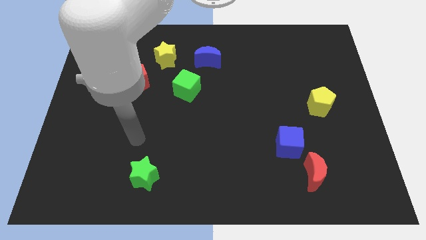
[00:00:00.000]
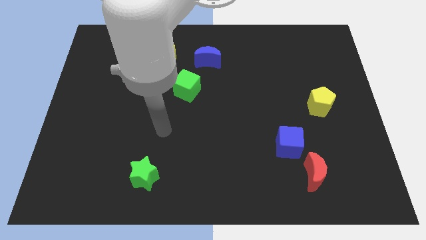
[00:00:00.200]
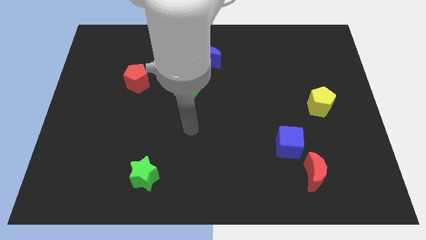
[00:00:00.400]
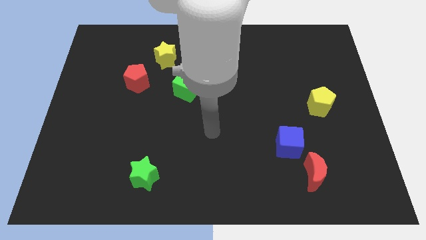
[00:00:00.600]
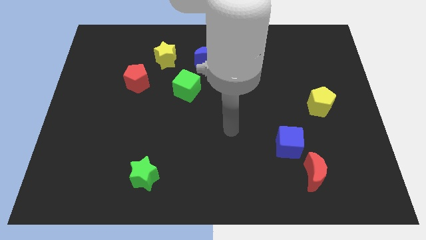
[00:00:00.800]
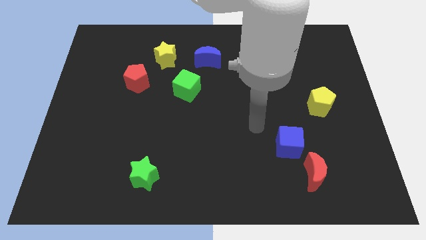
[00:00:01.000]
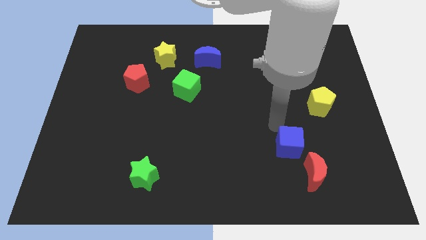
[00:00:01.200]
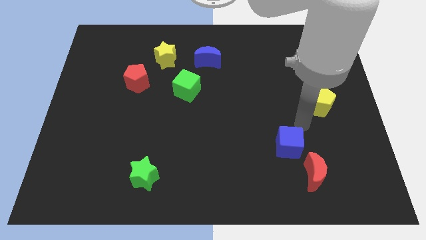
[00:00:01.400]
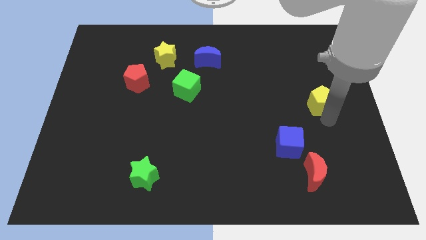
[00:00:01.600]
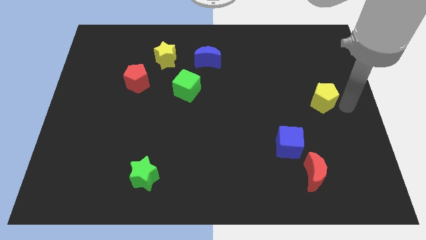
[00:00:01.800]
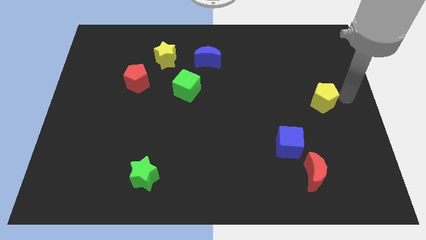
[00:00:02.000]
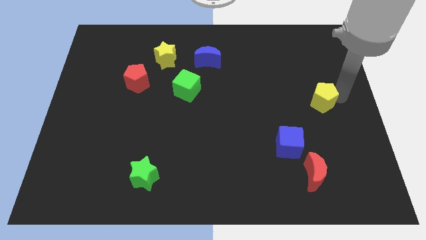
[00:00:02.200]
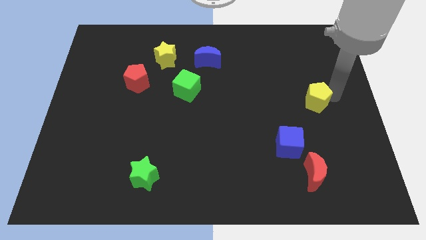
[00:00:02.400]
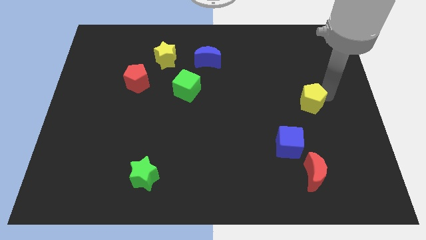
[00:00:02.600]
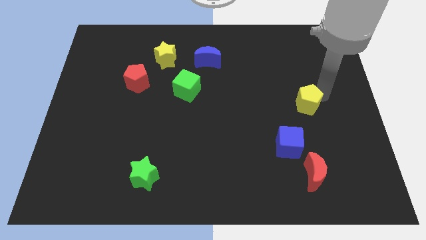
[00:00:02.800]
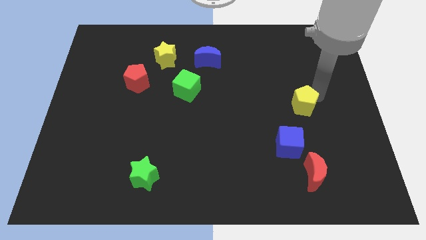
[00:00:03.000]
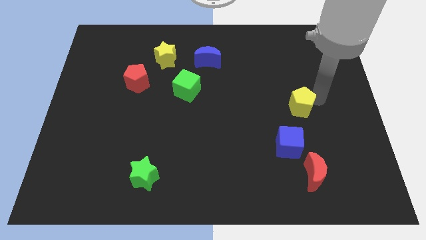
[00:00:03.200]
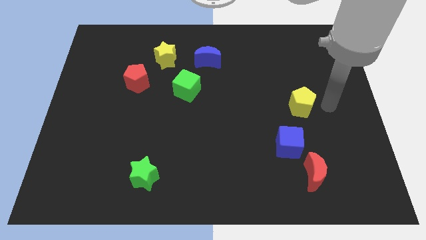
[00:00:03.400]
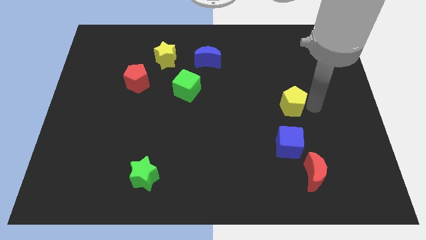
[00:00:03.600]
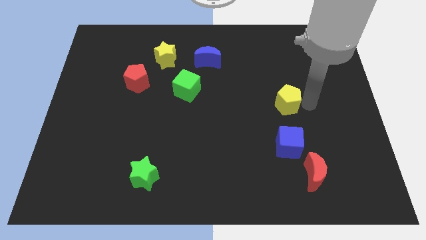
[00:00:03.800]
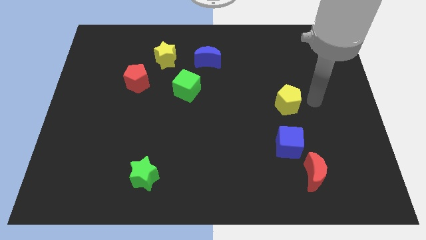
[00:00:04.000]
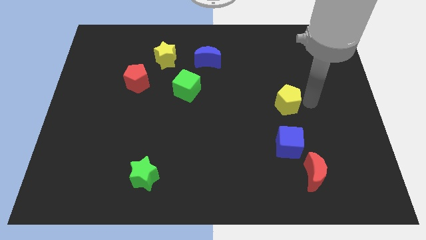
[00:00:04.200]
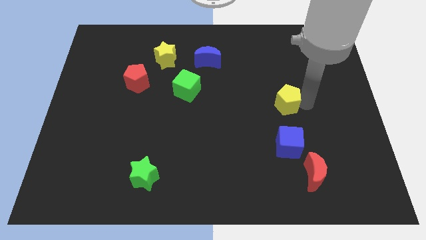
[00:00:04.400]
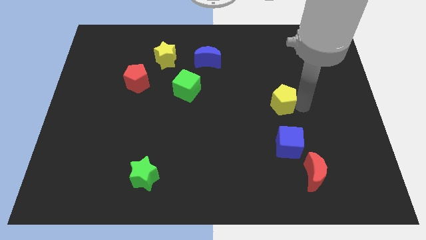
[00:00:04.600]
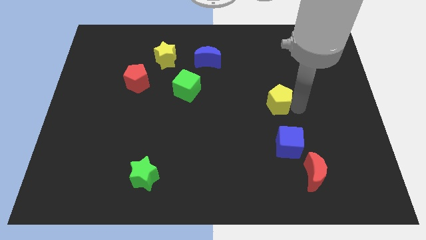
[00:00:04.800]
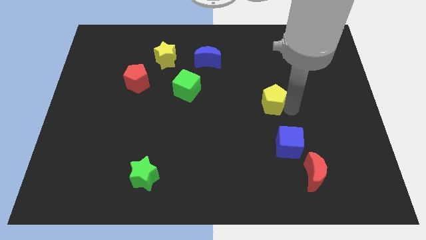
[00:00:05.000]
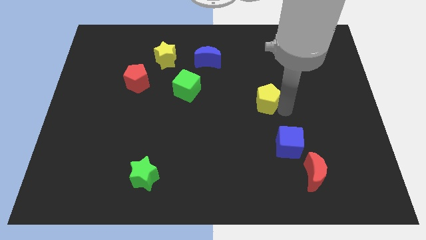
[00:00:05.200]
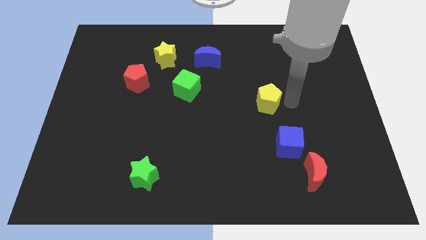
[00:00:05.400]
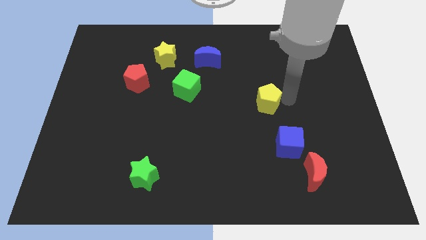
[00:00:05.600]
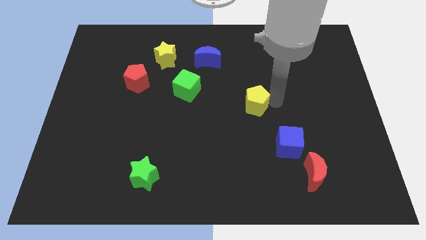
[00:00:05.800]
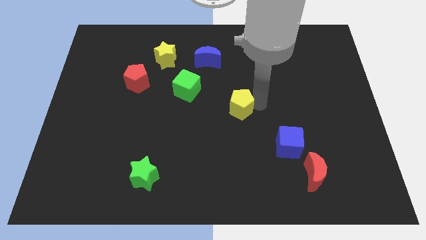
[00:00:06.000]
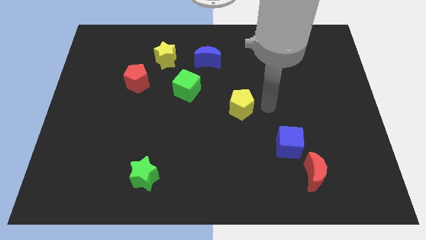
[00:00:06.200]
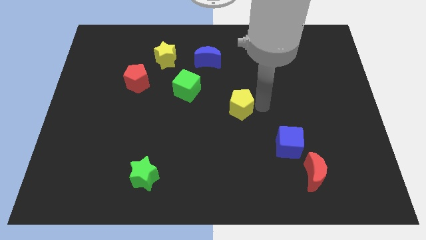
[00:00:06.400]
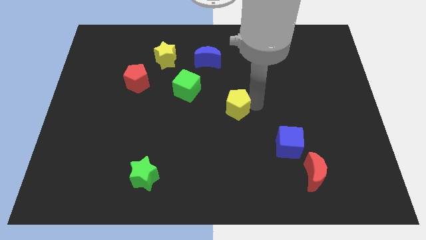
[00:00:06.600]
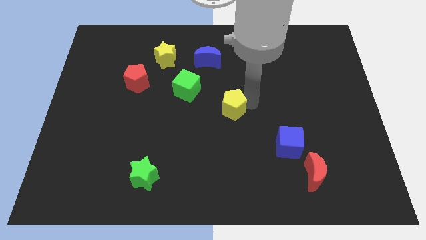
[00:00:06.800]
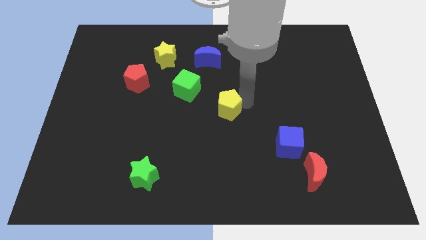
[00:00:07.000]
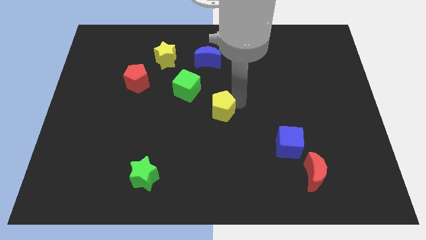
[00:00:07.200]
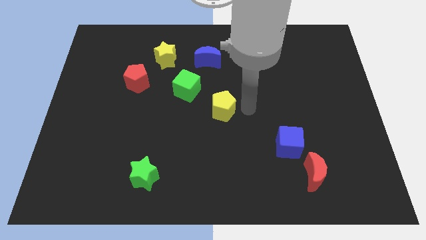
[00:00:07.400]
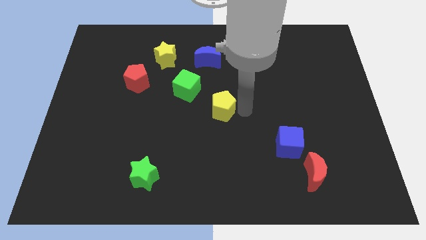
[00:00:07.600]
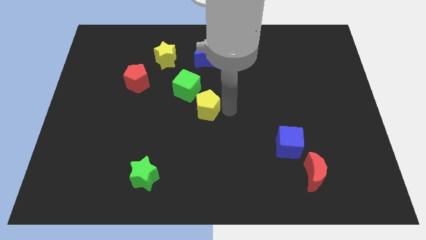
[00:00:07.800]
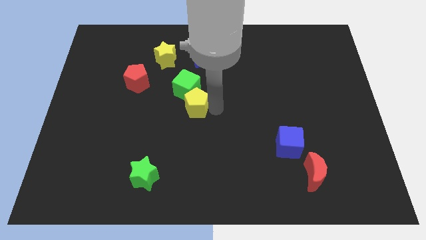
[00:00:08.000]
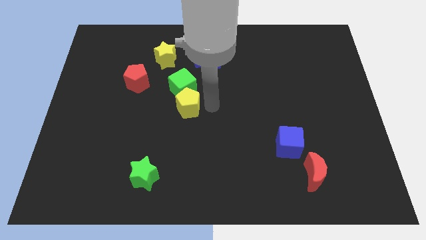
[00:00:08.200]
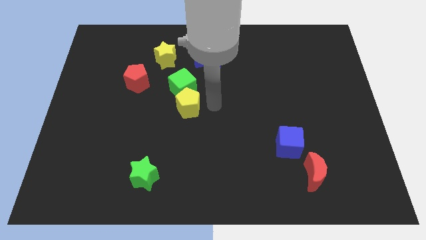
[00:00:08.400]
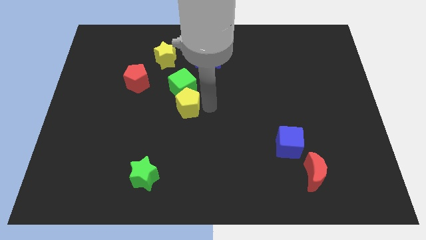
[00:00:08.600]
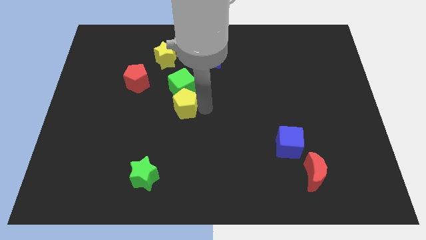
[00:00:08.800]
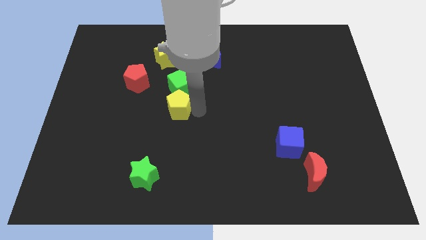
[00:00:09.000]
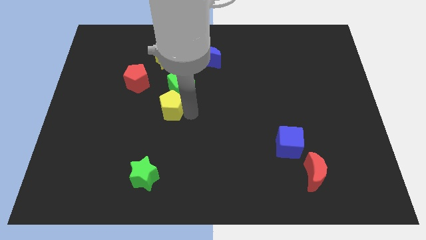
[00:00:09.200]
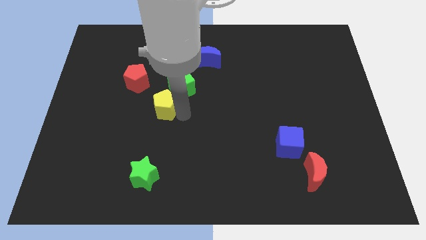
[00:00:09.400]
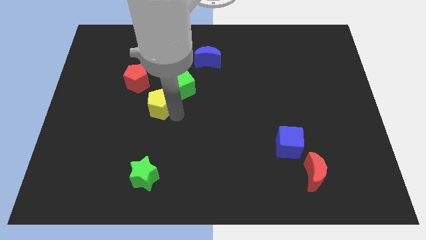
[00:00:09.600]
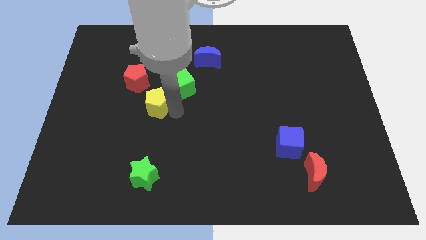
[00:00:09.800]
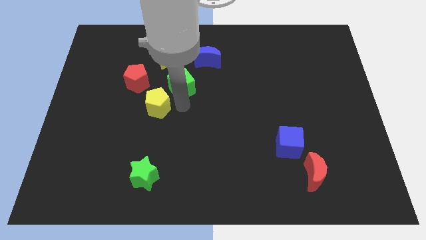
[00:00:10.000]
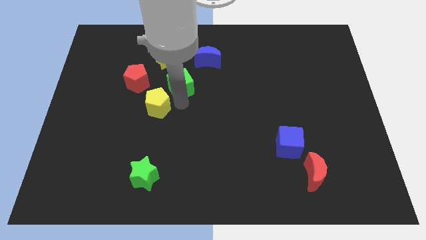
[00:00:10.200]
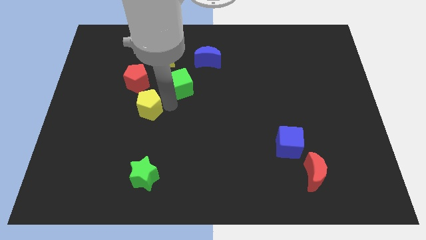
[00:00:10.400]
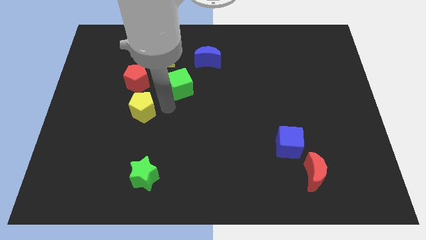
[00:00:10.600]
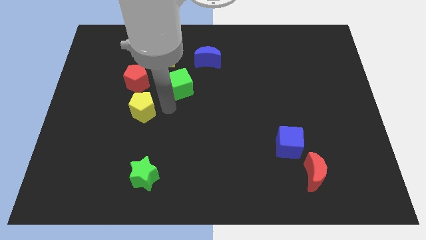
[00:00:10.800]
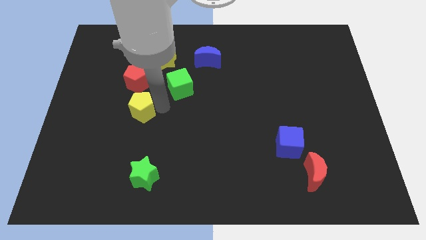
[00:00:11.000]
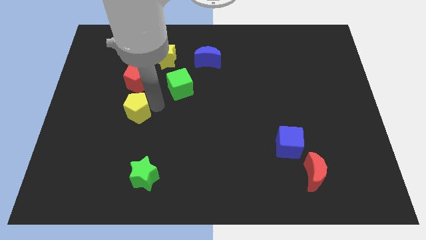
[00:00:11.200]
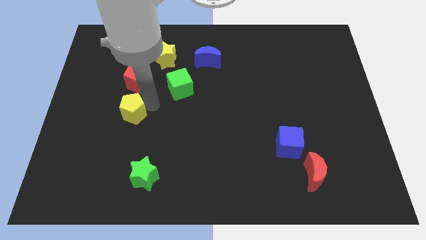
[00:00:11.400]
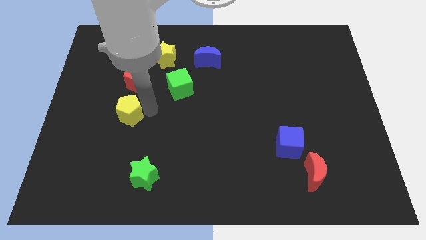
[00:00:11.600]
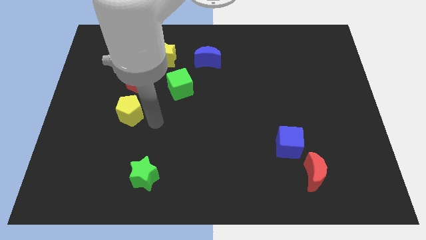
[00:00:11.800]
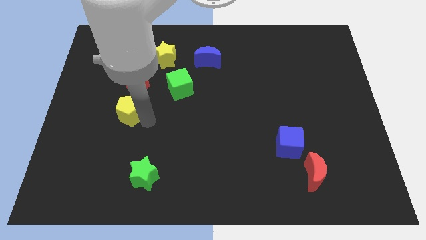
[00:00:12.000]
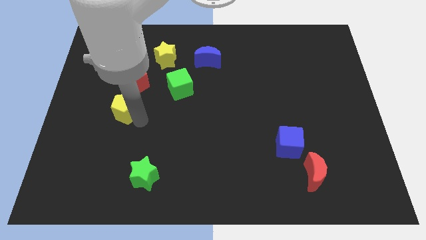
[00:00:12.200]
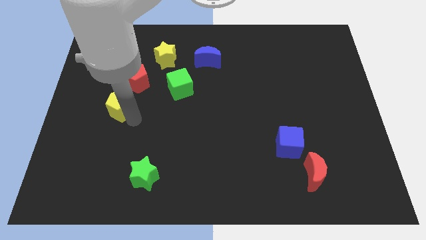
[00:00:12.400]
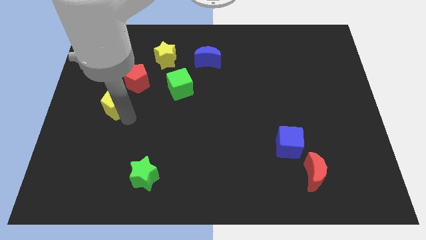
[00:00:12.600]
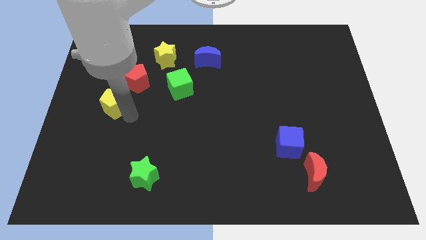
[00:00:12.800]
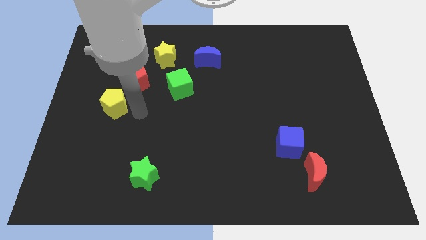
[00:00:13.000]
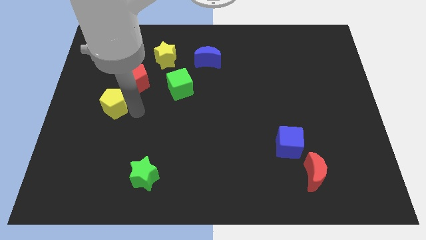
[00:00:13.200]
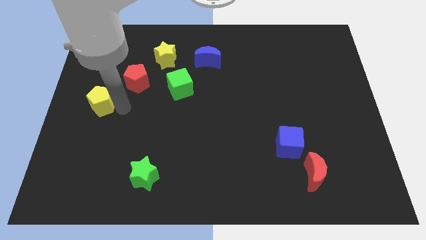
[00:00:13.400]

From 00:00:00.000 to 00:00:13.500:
push the yellow pentagon to the left side of the board
